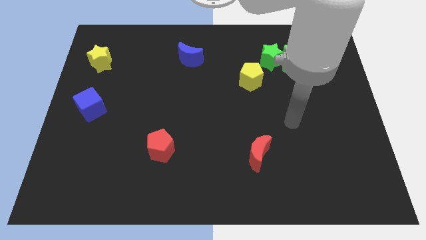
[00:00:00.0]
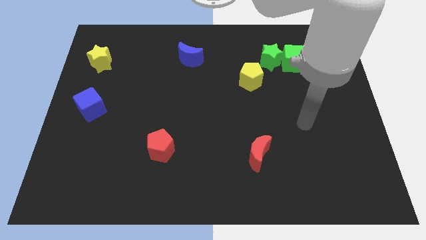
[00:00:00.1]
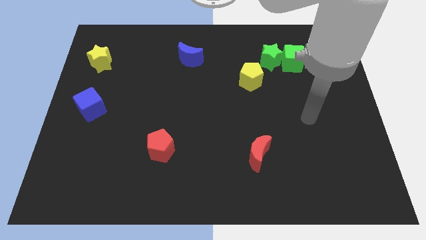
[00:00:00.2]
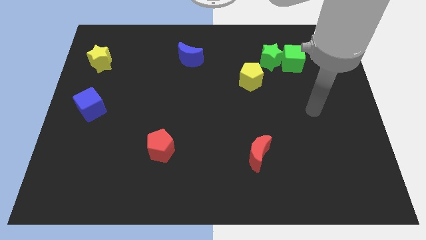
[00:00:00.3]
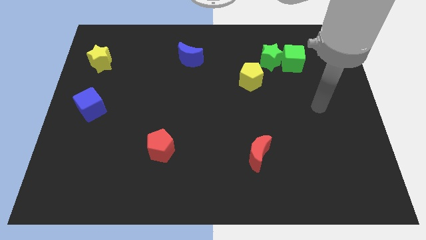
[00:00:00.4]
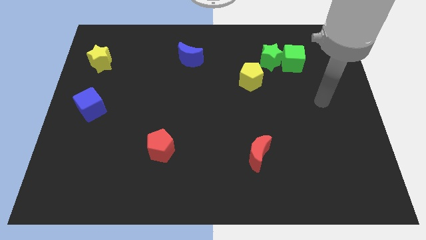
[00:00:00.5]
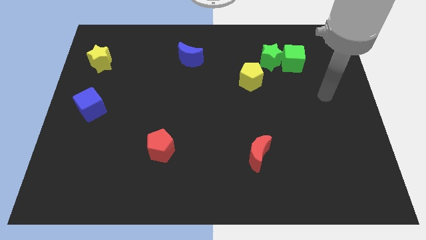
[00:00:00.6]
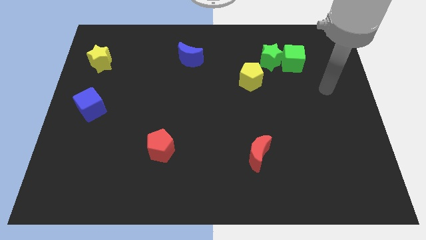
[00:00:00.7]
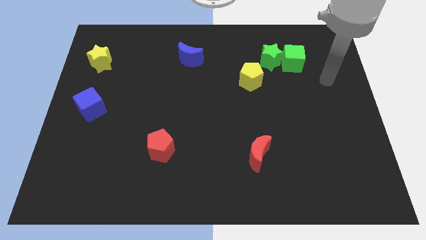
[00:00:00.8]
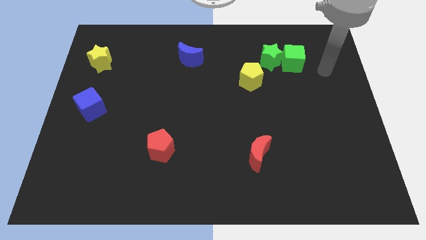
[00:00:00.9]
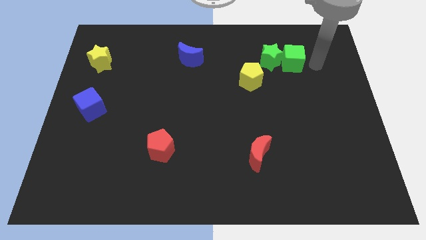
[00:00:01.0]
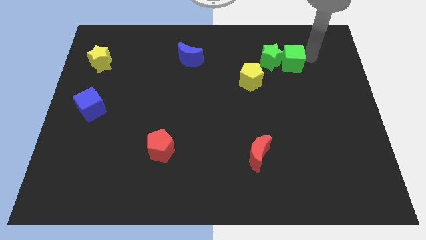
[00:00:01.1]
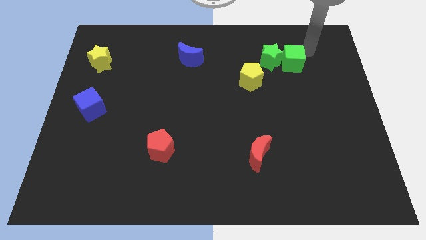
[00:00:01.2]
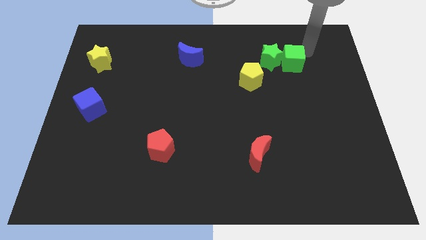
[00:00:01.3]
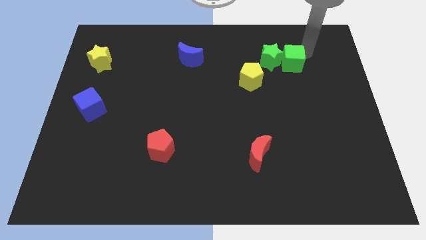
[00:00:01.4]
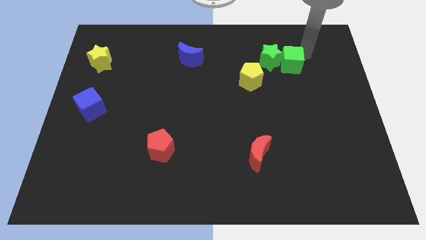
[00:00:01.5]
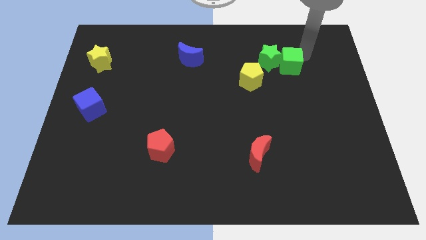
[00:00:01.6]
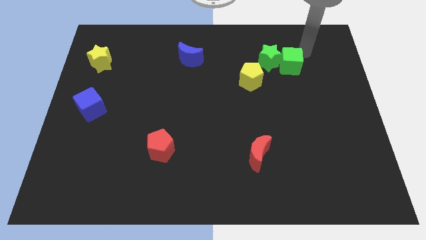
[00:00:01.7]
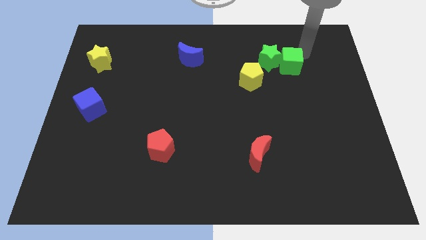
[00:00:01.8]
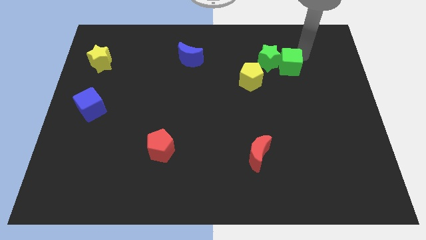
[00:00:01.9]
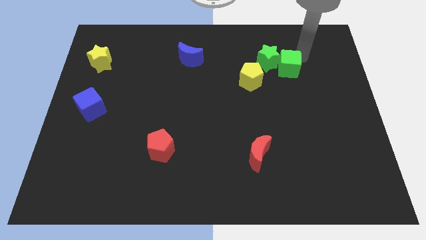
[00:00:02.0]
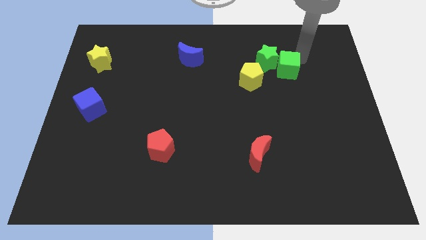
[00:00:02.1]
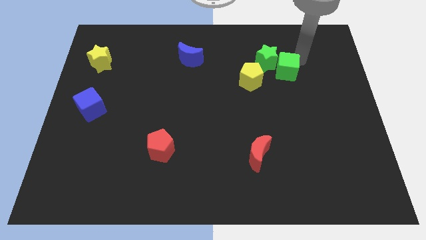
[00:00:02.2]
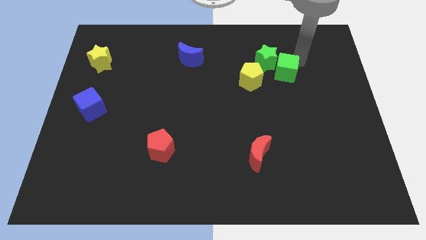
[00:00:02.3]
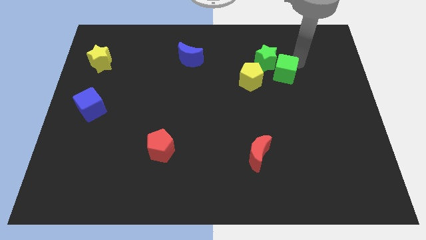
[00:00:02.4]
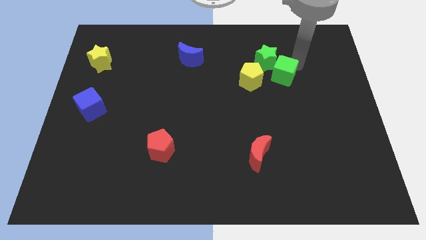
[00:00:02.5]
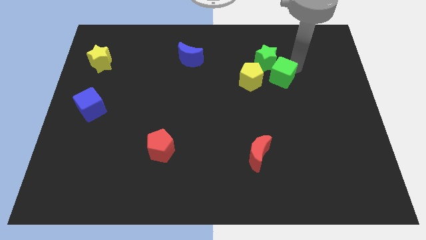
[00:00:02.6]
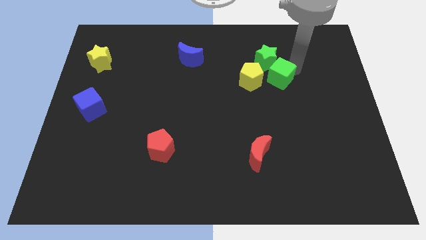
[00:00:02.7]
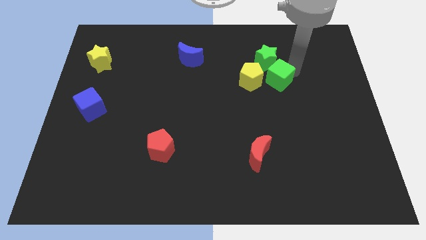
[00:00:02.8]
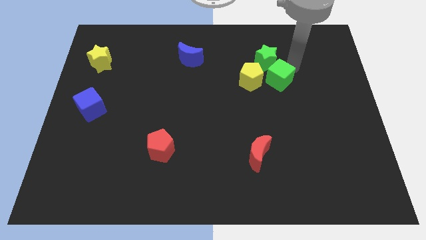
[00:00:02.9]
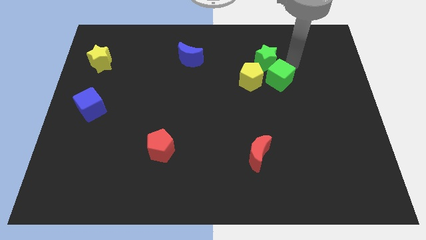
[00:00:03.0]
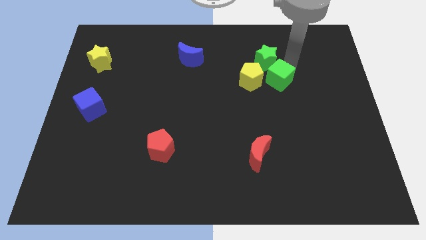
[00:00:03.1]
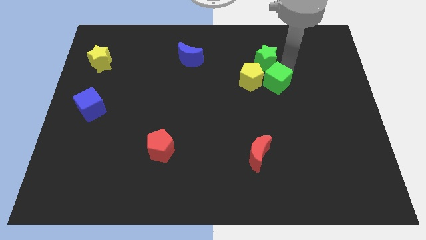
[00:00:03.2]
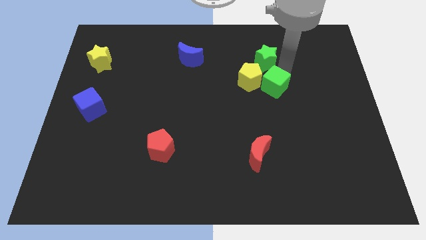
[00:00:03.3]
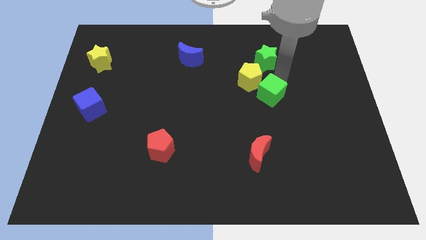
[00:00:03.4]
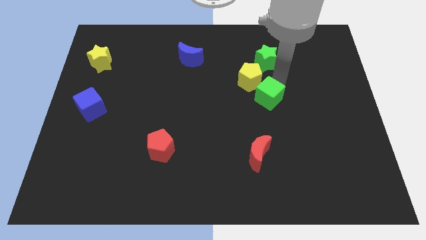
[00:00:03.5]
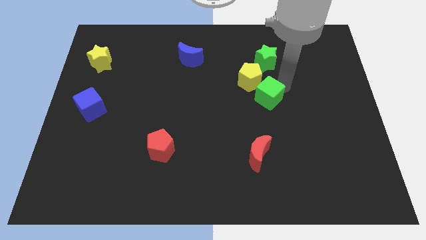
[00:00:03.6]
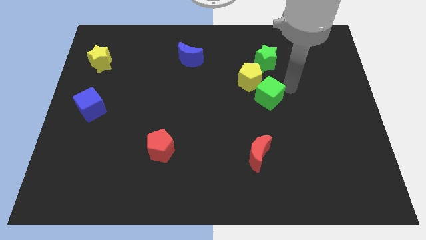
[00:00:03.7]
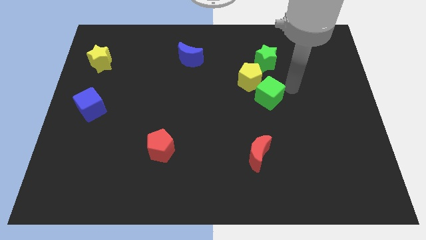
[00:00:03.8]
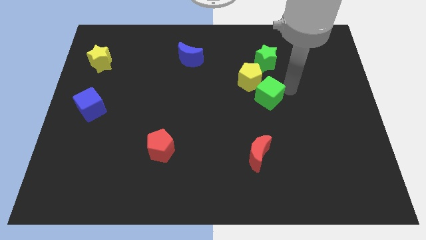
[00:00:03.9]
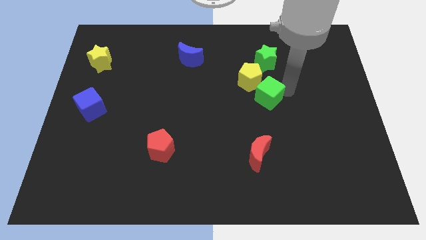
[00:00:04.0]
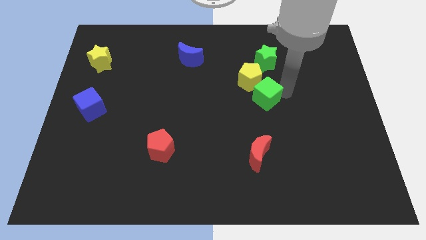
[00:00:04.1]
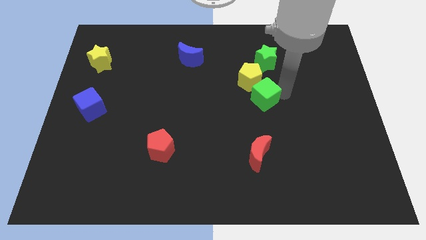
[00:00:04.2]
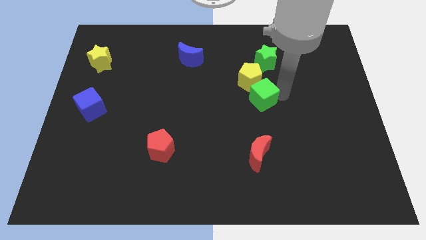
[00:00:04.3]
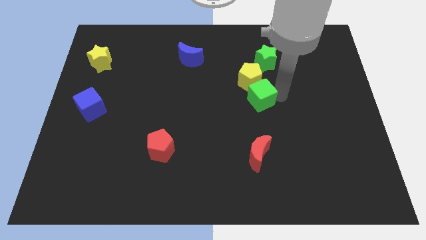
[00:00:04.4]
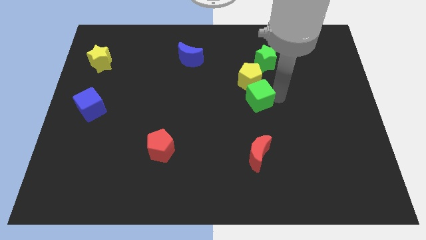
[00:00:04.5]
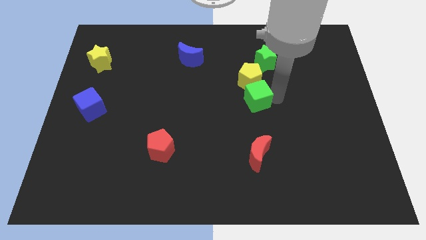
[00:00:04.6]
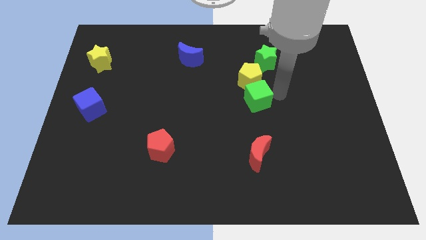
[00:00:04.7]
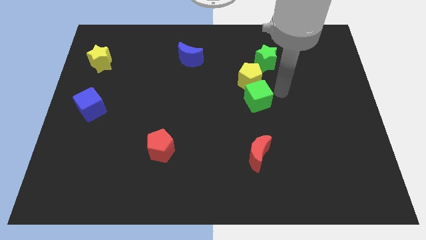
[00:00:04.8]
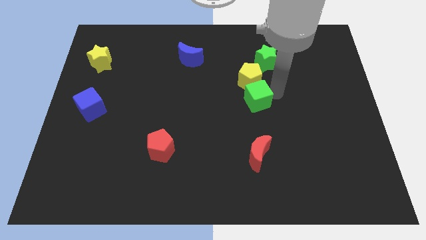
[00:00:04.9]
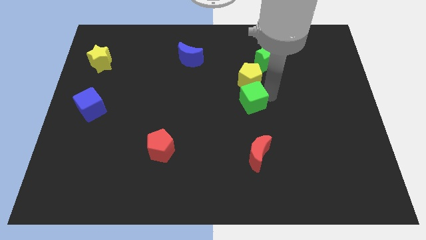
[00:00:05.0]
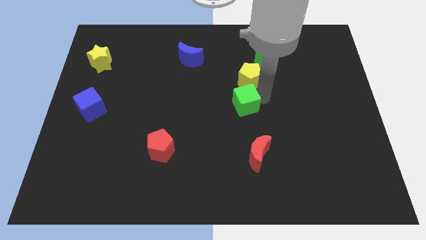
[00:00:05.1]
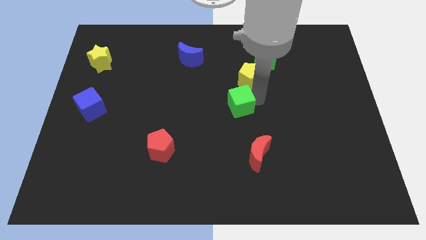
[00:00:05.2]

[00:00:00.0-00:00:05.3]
move the green cube diagonally downwards and to the left

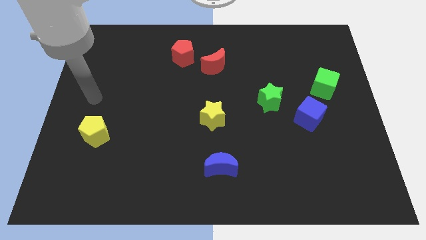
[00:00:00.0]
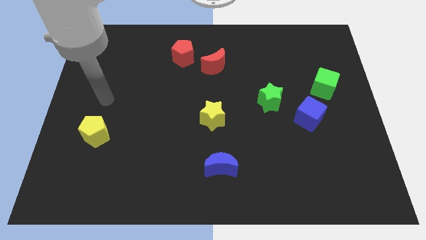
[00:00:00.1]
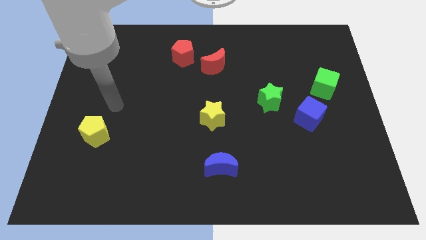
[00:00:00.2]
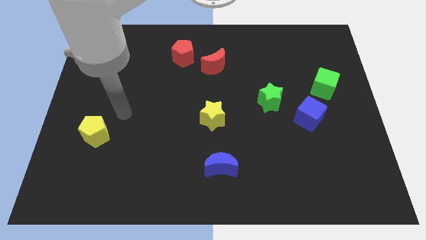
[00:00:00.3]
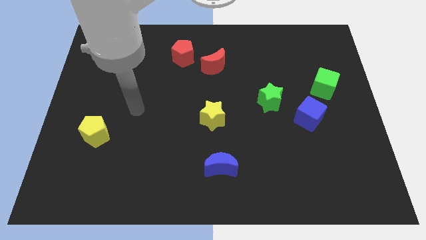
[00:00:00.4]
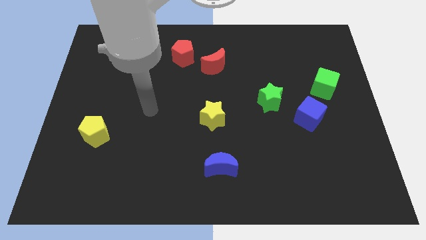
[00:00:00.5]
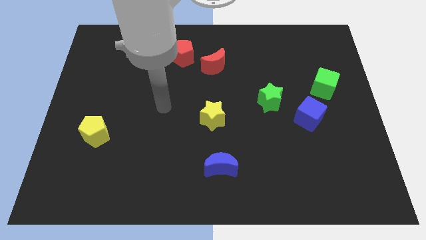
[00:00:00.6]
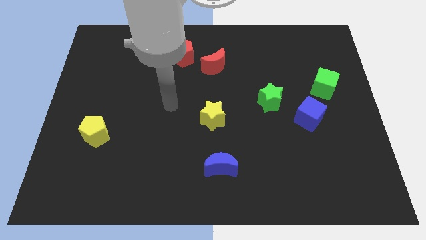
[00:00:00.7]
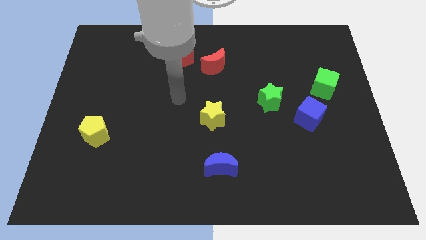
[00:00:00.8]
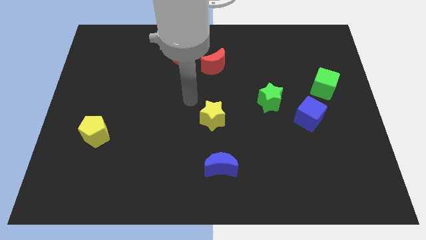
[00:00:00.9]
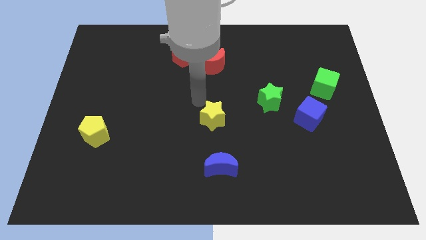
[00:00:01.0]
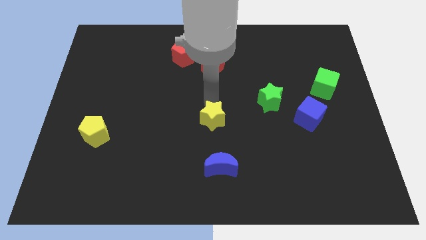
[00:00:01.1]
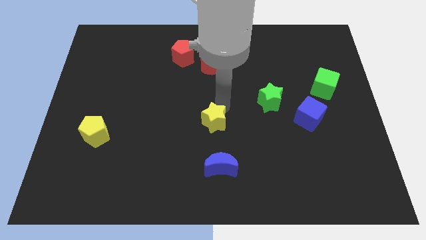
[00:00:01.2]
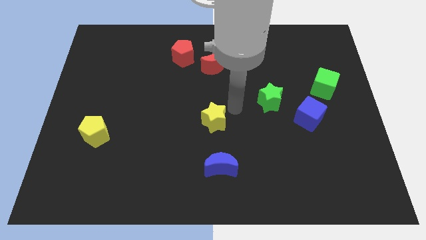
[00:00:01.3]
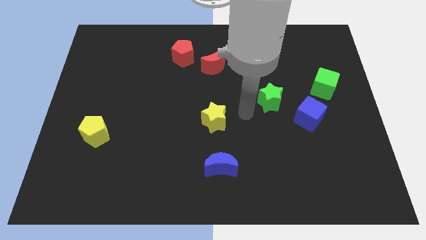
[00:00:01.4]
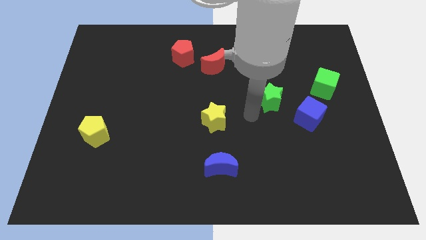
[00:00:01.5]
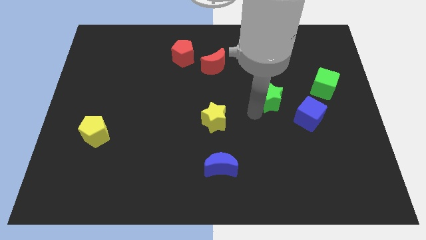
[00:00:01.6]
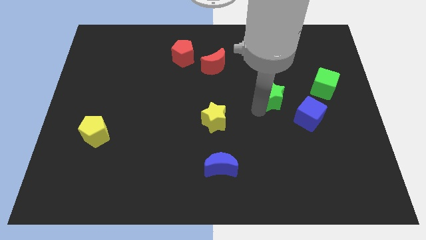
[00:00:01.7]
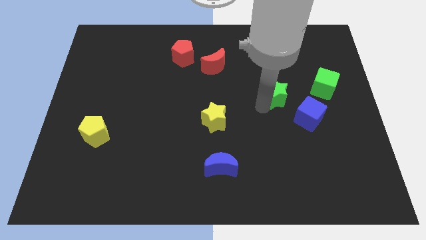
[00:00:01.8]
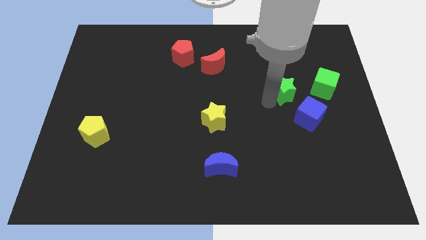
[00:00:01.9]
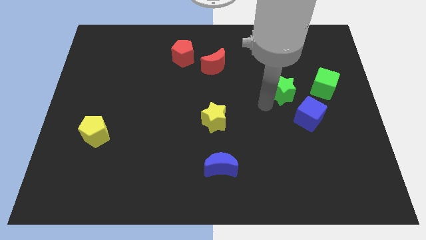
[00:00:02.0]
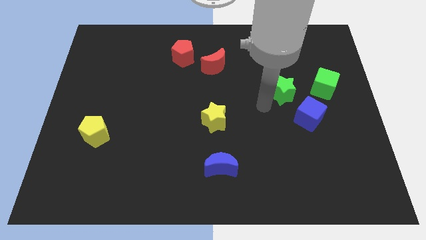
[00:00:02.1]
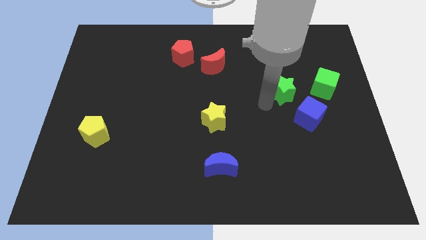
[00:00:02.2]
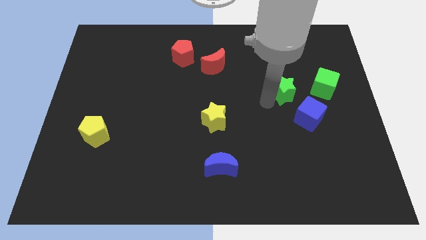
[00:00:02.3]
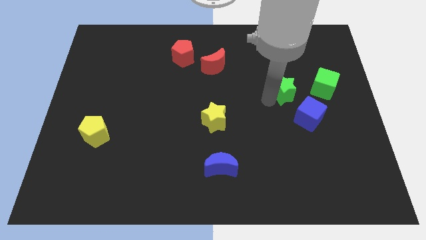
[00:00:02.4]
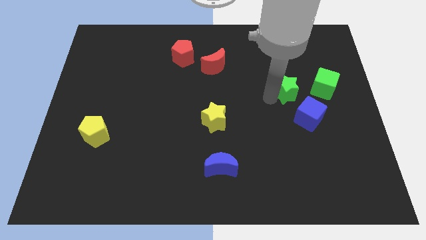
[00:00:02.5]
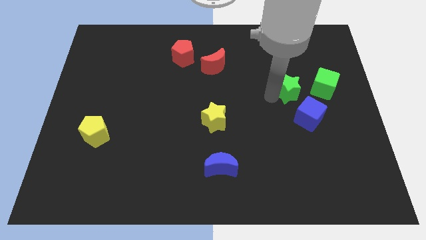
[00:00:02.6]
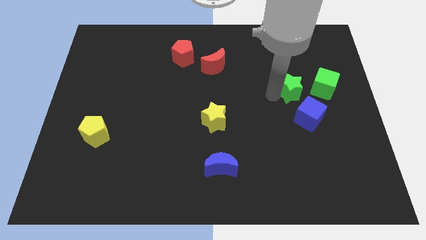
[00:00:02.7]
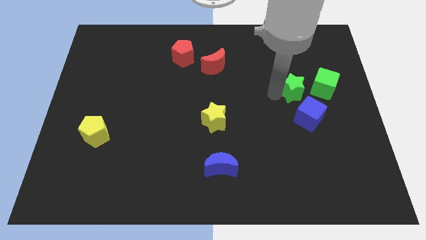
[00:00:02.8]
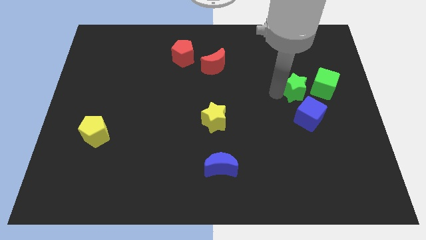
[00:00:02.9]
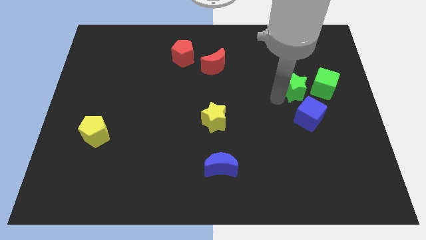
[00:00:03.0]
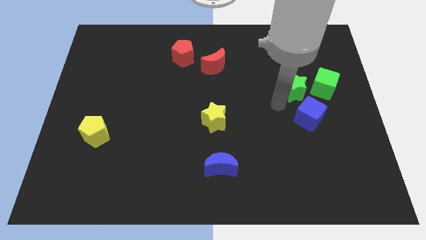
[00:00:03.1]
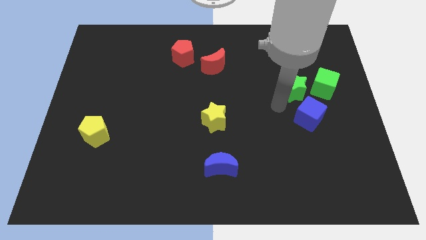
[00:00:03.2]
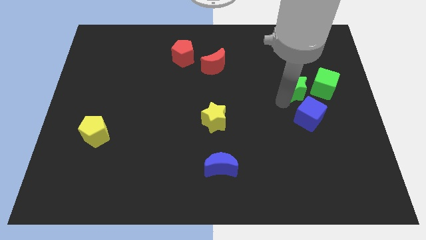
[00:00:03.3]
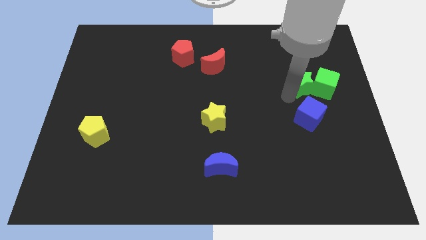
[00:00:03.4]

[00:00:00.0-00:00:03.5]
slide the green star up and to the right a little
